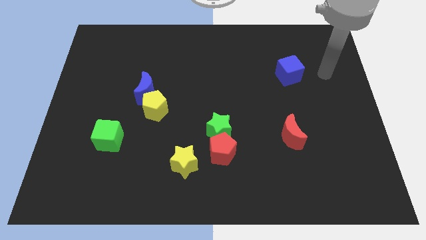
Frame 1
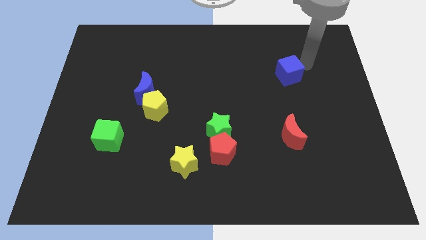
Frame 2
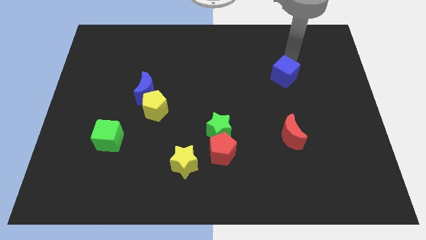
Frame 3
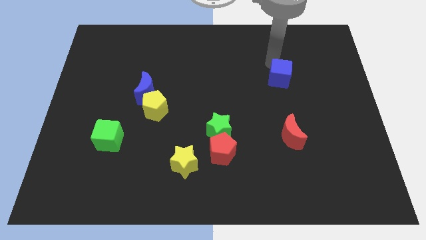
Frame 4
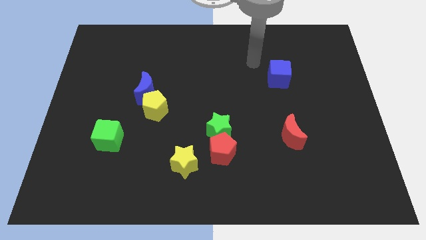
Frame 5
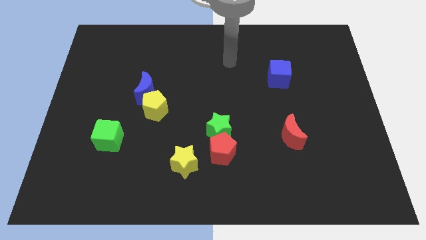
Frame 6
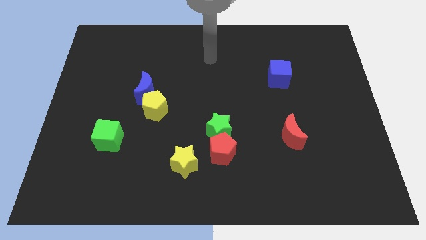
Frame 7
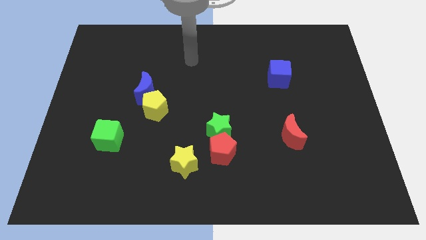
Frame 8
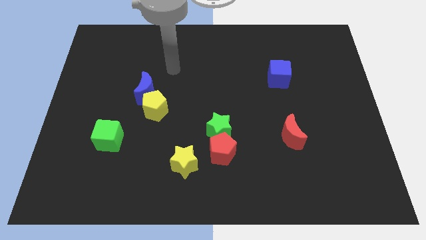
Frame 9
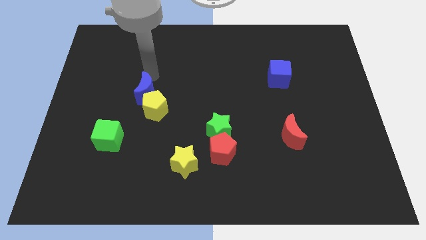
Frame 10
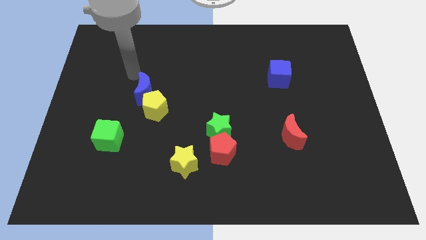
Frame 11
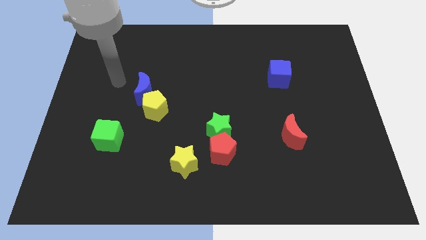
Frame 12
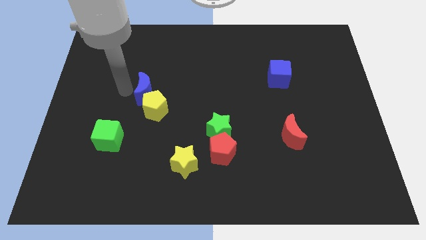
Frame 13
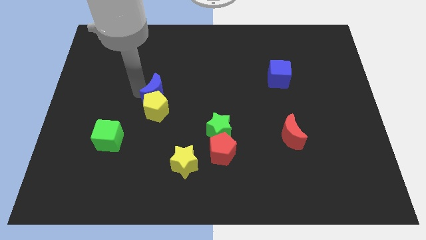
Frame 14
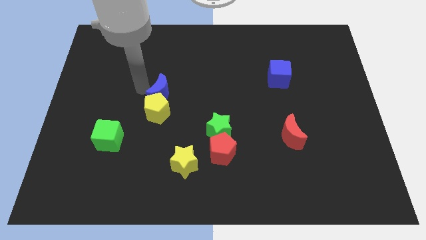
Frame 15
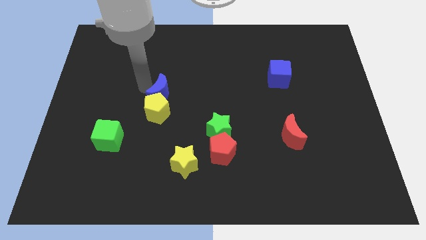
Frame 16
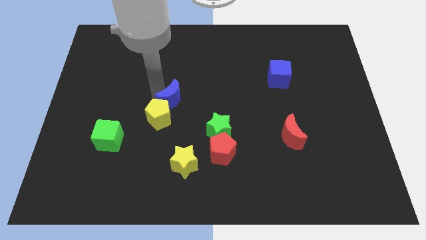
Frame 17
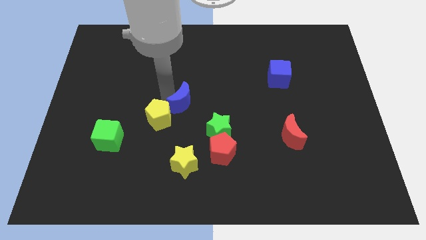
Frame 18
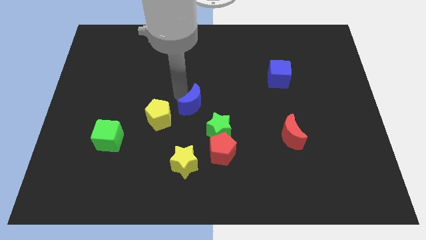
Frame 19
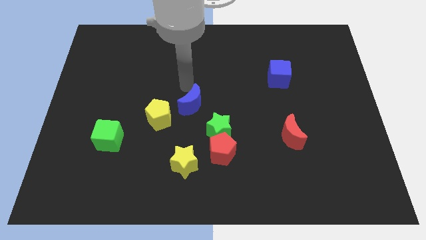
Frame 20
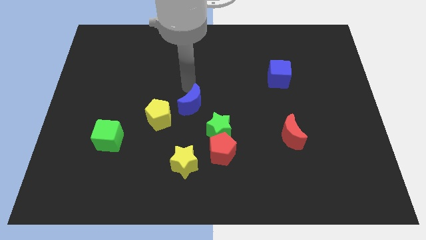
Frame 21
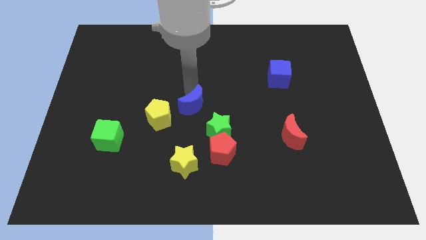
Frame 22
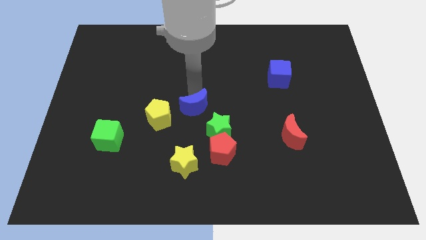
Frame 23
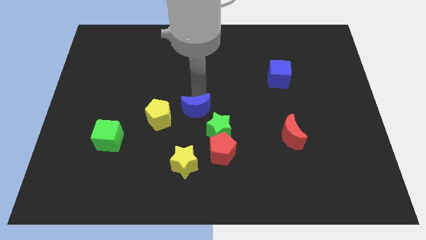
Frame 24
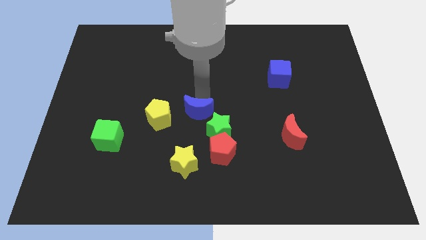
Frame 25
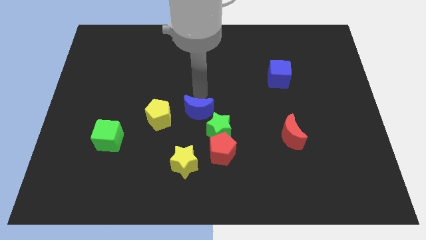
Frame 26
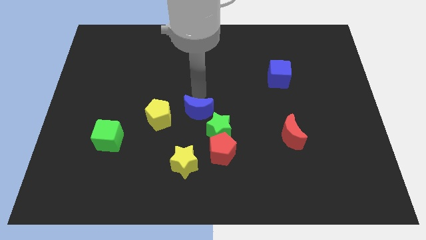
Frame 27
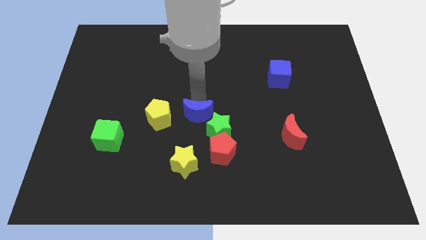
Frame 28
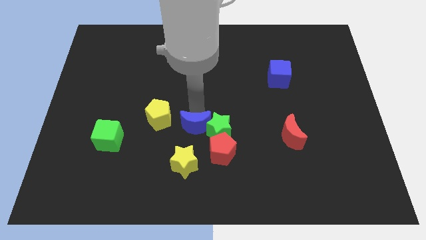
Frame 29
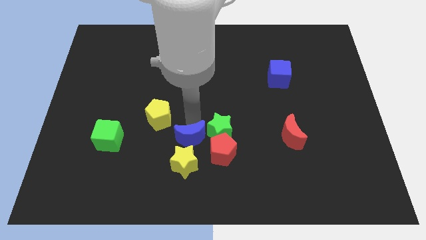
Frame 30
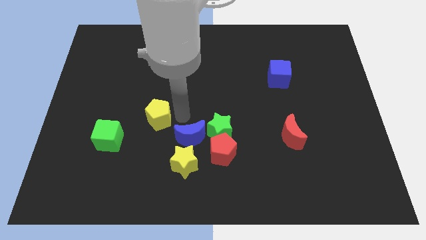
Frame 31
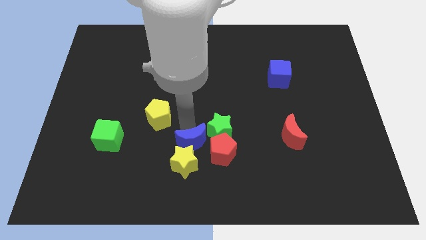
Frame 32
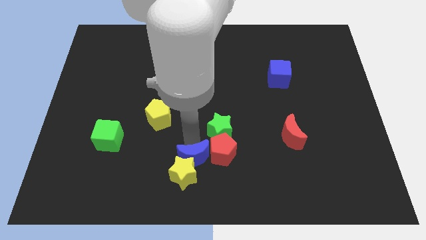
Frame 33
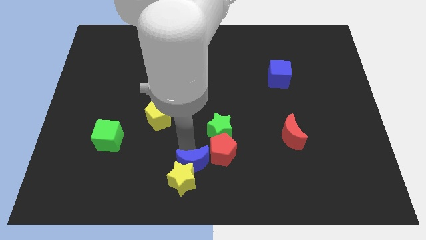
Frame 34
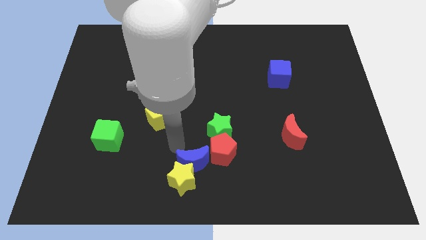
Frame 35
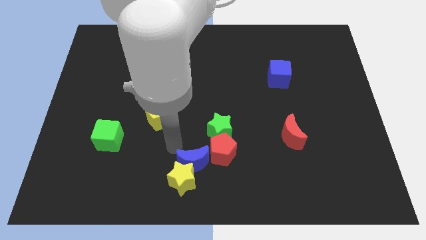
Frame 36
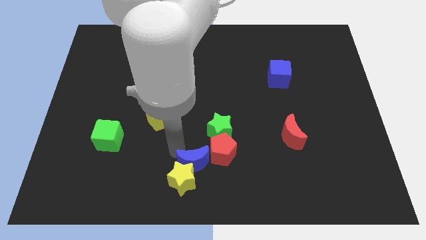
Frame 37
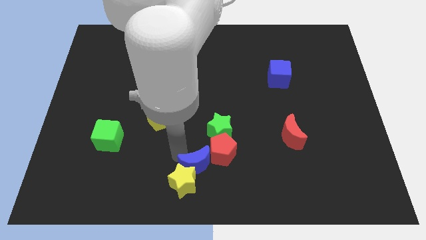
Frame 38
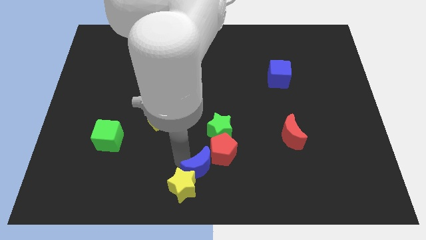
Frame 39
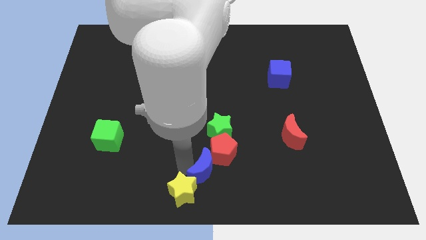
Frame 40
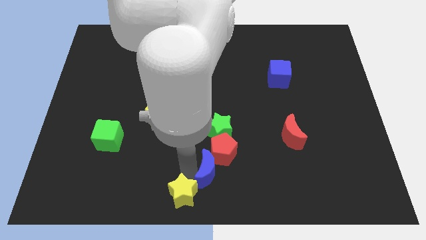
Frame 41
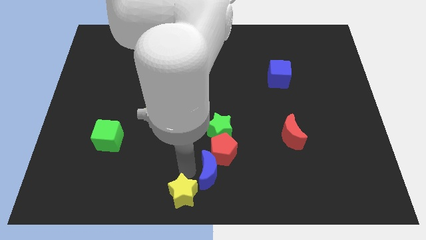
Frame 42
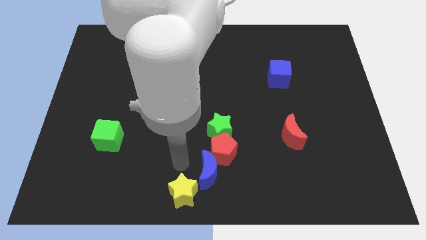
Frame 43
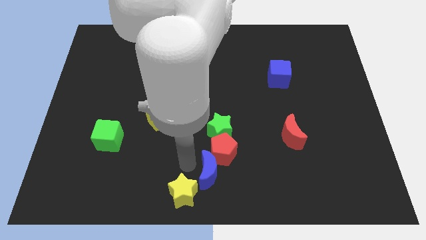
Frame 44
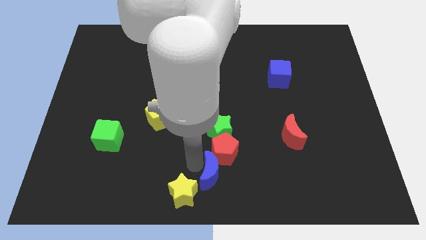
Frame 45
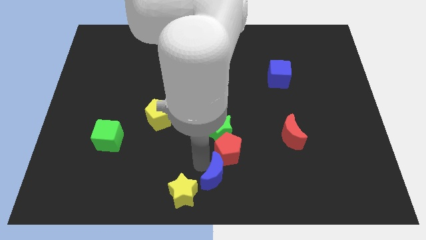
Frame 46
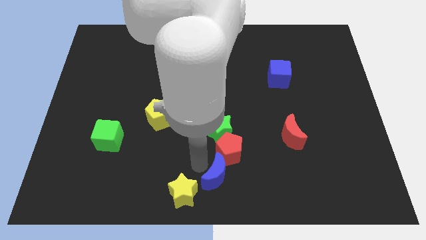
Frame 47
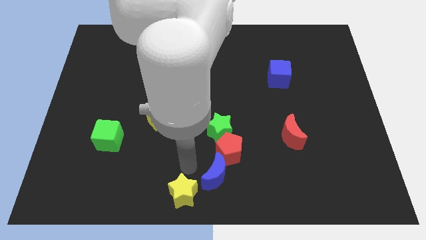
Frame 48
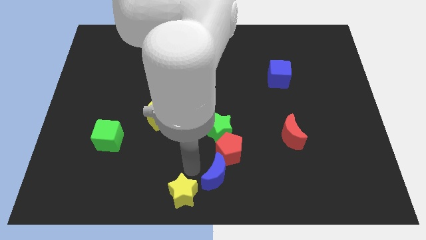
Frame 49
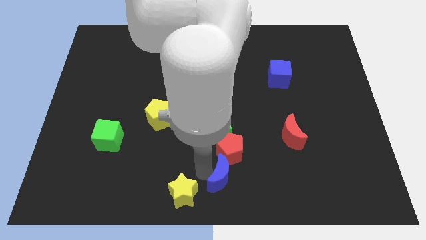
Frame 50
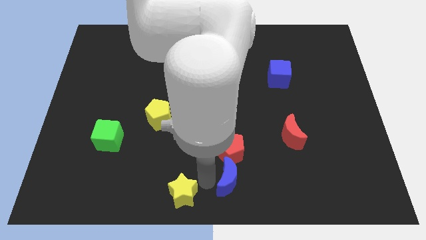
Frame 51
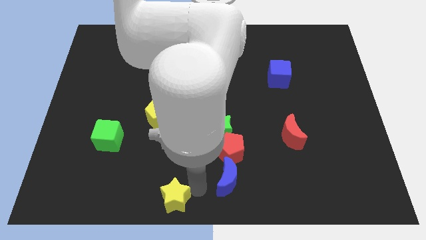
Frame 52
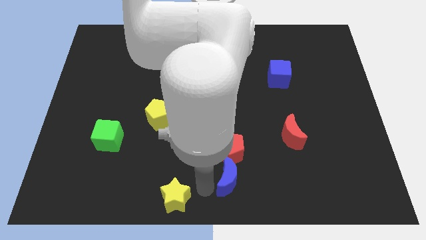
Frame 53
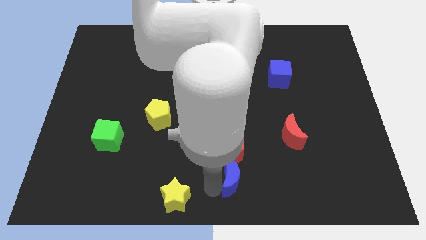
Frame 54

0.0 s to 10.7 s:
put the blue moon diagonally down and to the right of the red pentagon

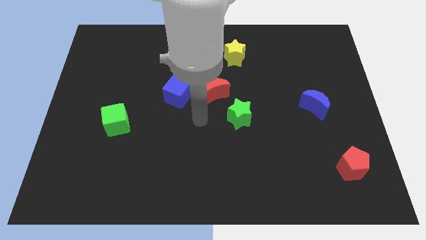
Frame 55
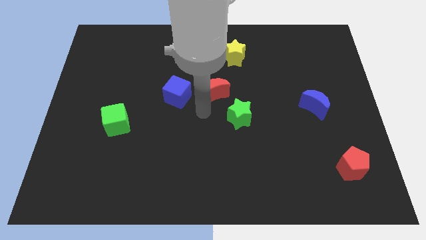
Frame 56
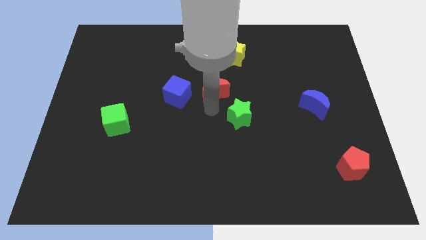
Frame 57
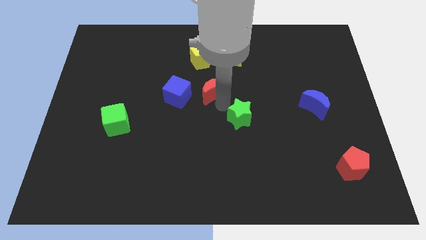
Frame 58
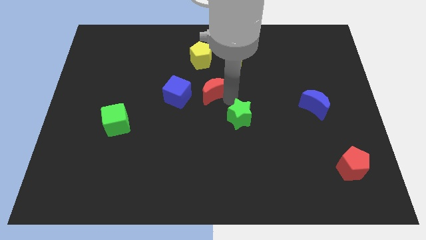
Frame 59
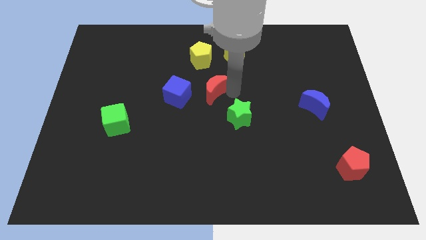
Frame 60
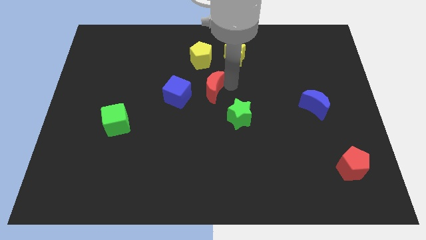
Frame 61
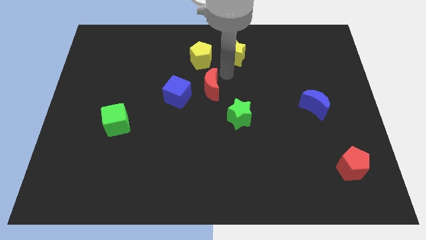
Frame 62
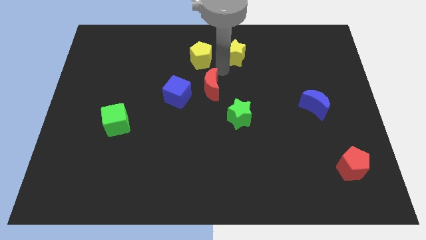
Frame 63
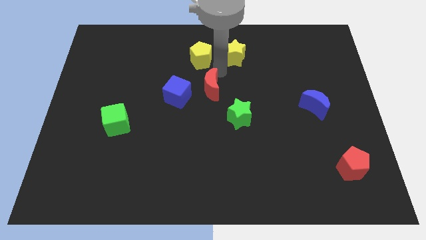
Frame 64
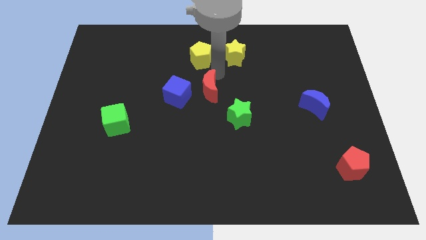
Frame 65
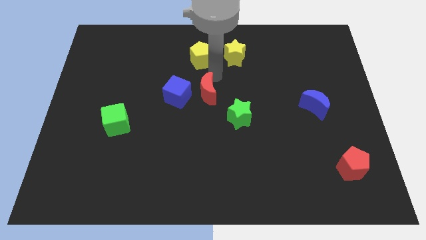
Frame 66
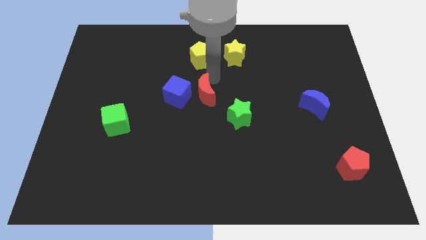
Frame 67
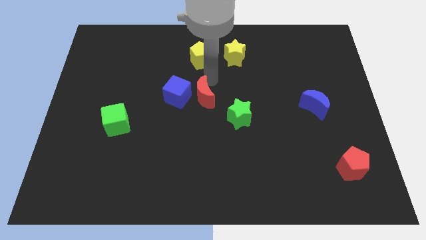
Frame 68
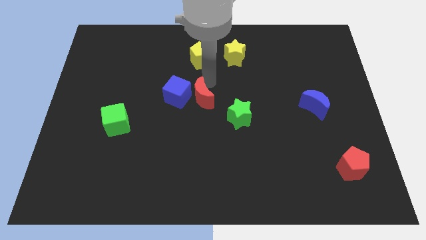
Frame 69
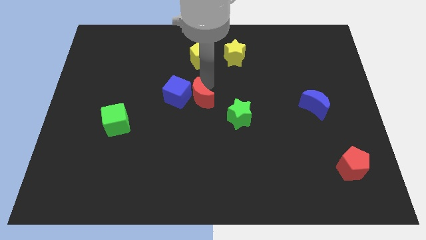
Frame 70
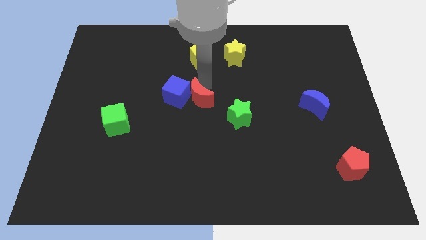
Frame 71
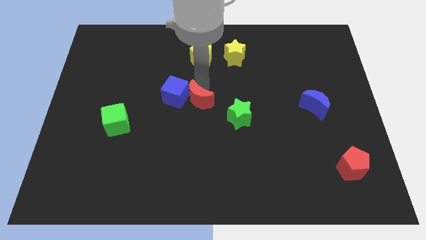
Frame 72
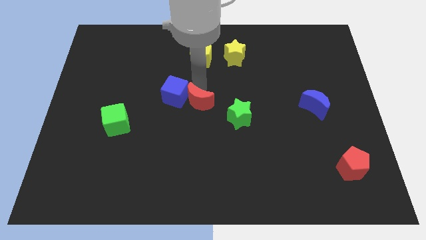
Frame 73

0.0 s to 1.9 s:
put the red moon just left of the green star

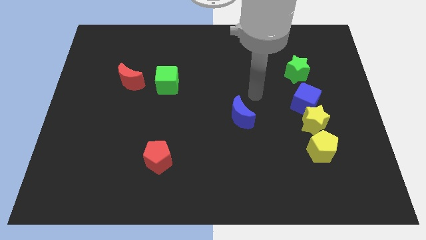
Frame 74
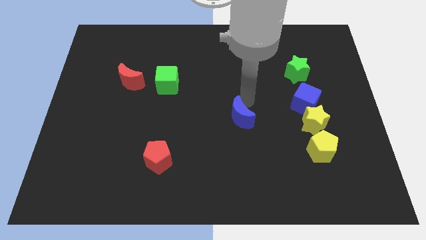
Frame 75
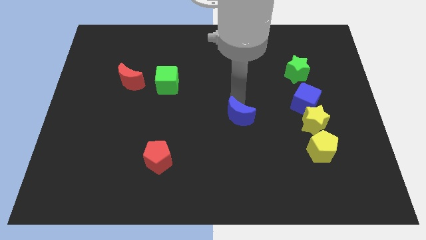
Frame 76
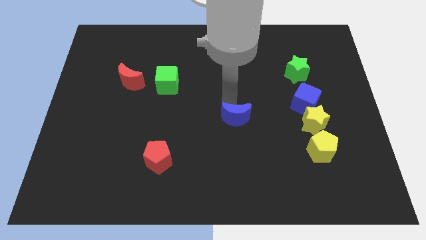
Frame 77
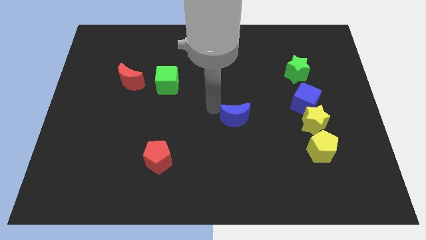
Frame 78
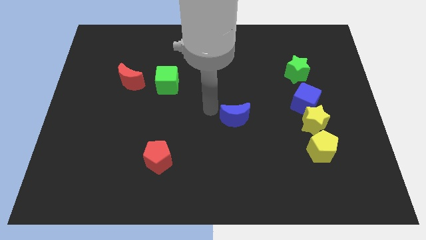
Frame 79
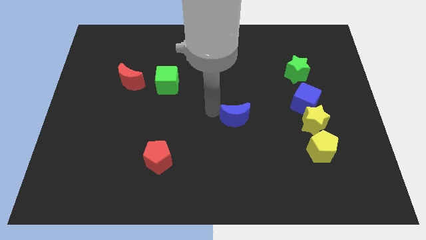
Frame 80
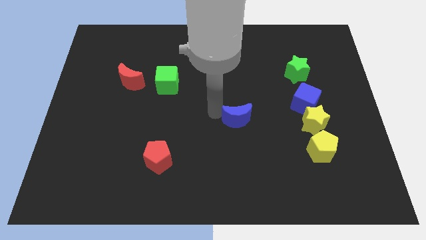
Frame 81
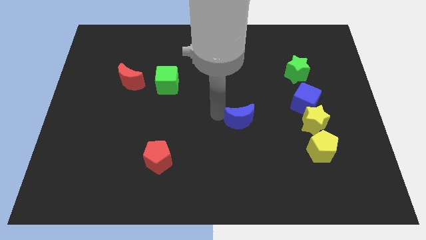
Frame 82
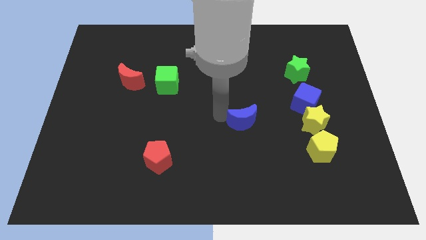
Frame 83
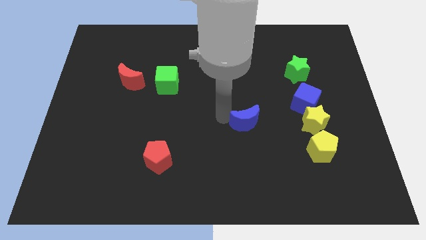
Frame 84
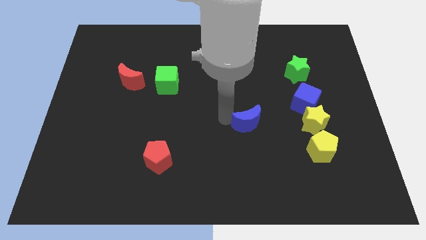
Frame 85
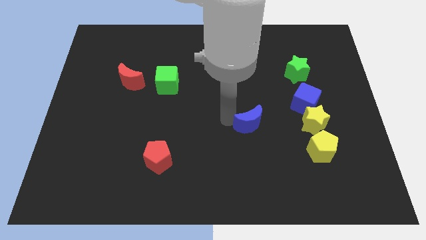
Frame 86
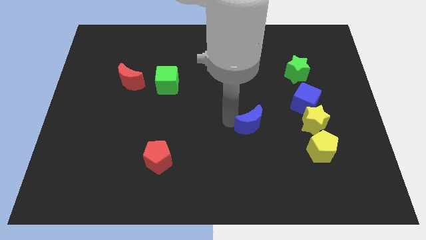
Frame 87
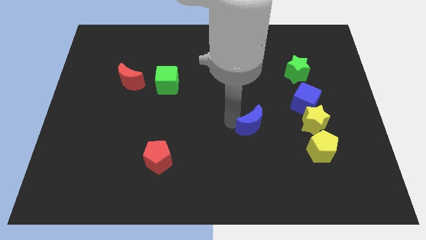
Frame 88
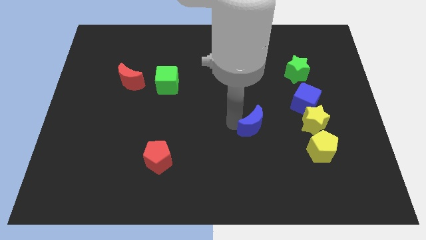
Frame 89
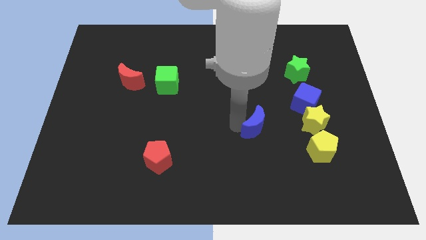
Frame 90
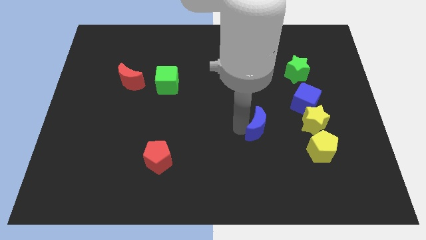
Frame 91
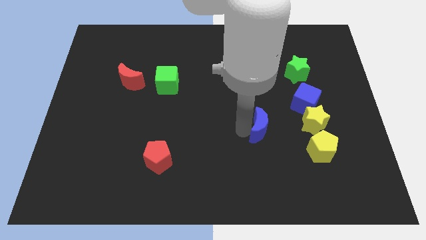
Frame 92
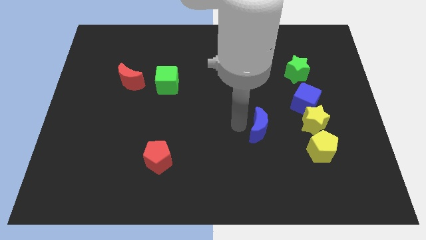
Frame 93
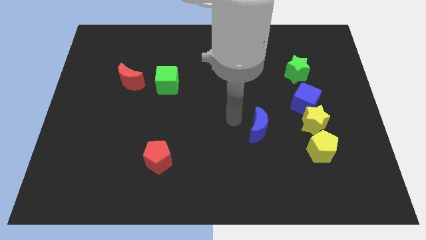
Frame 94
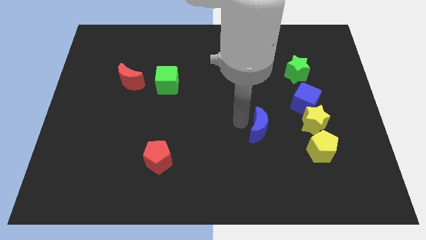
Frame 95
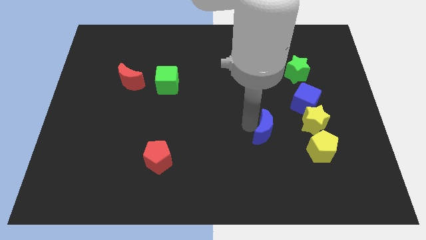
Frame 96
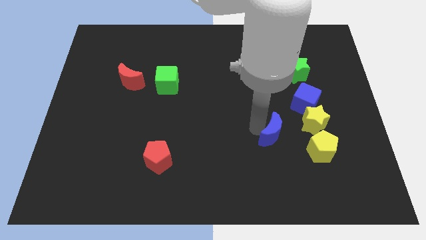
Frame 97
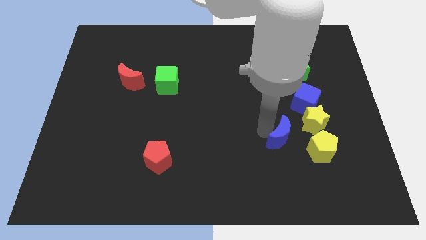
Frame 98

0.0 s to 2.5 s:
push the blue moon to the bottom left side of the yellow star
